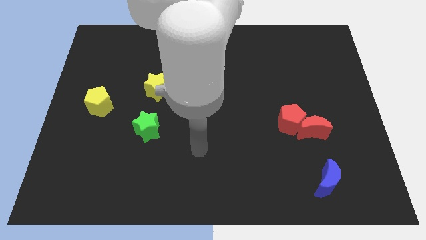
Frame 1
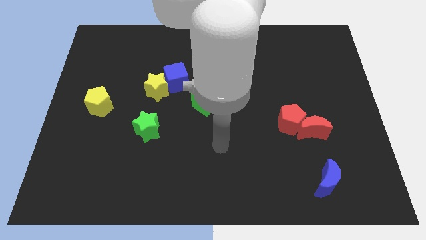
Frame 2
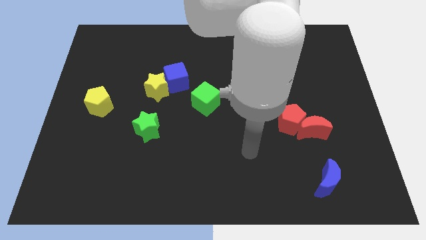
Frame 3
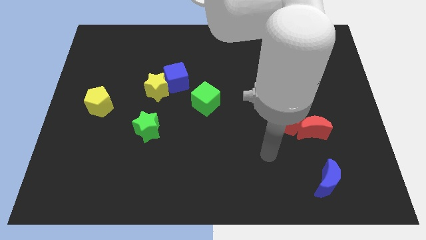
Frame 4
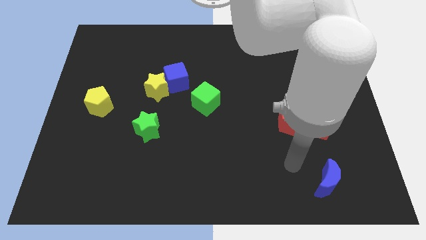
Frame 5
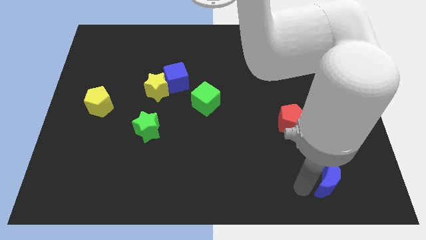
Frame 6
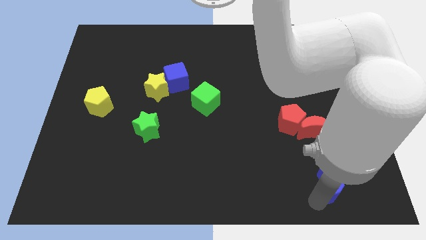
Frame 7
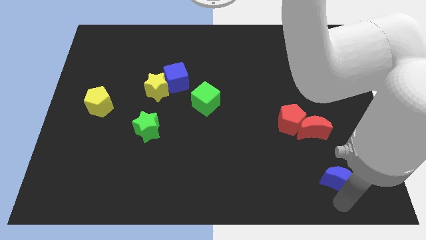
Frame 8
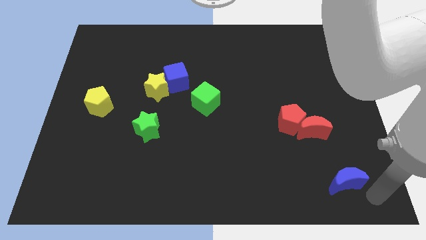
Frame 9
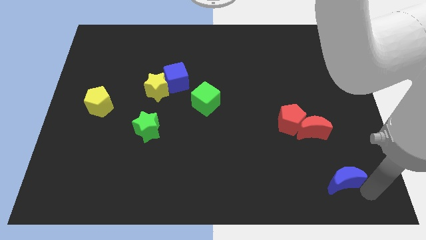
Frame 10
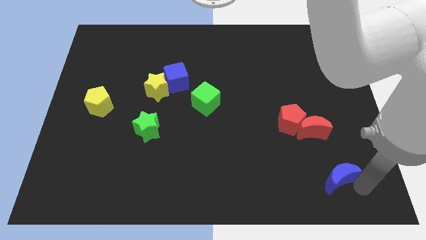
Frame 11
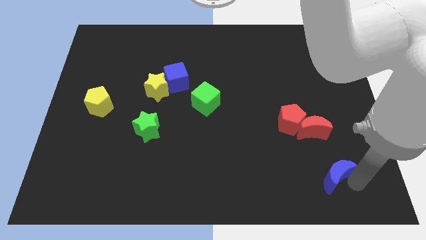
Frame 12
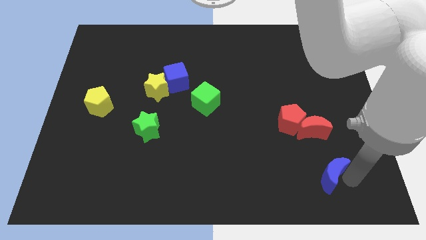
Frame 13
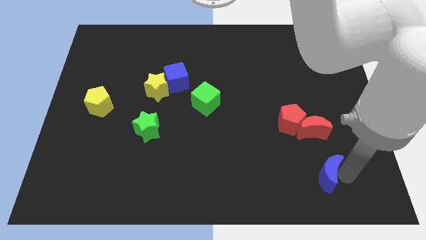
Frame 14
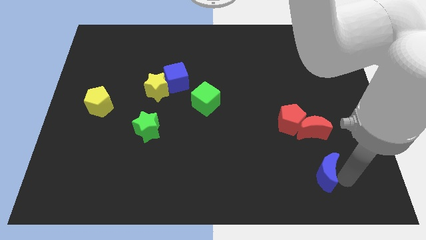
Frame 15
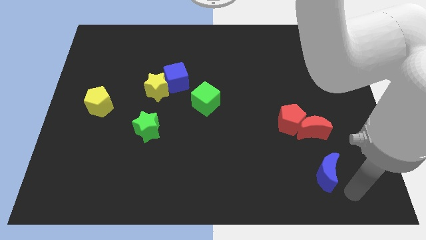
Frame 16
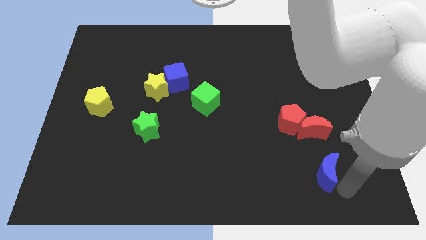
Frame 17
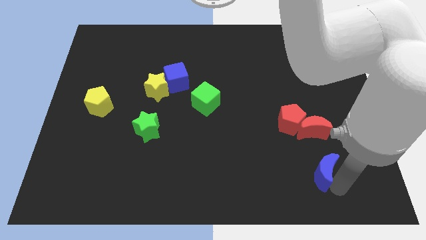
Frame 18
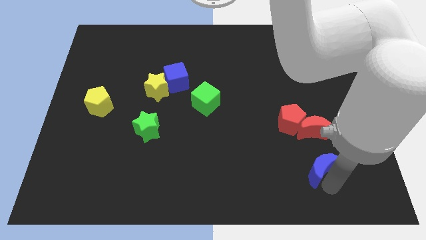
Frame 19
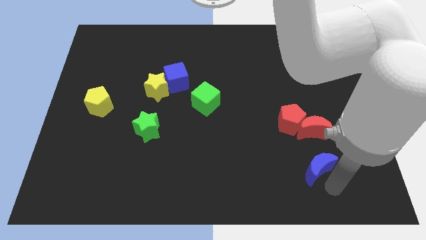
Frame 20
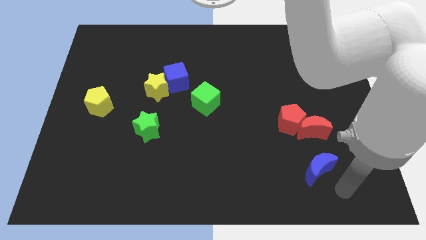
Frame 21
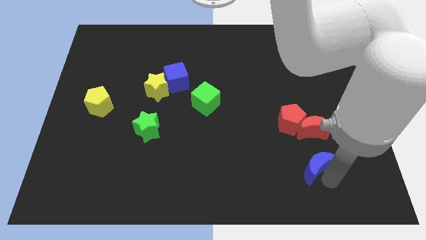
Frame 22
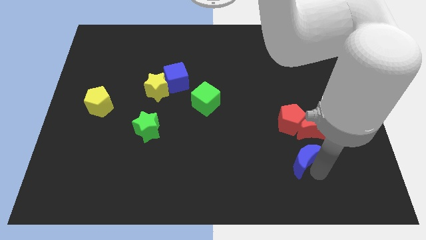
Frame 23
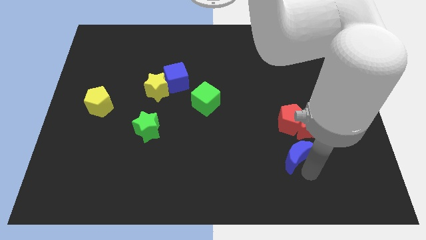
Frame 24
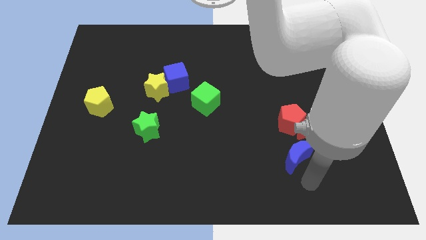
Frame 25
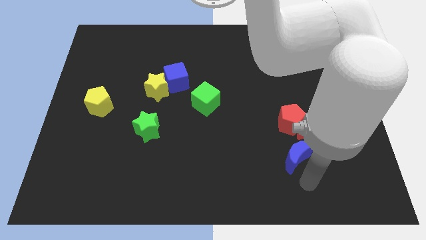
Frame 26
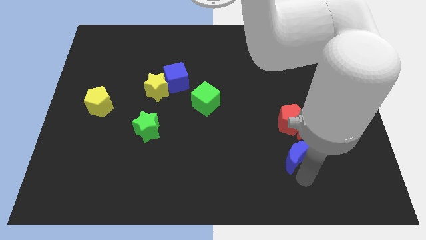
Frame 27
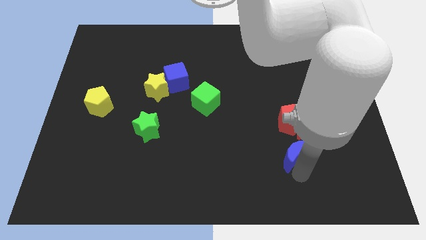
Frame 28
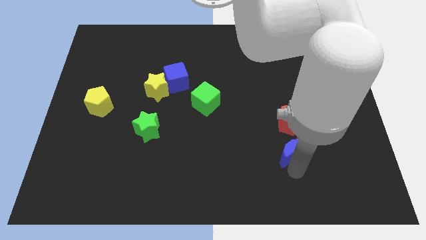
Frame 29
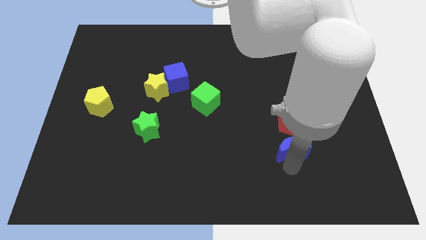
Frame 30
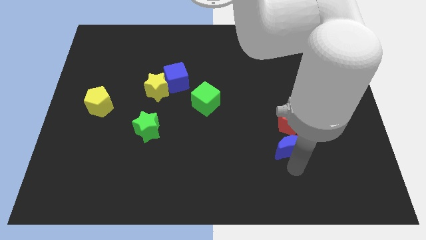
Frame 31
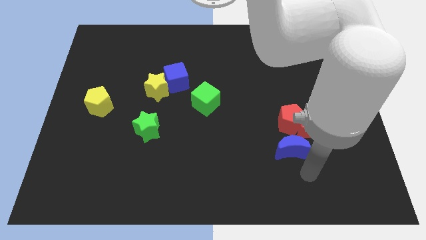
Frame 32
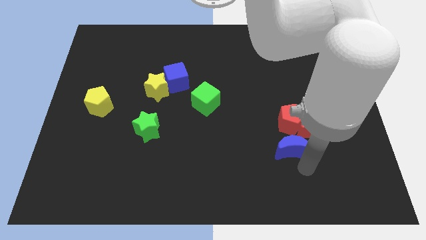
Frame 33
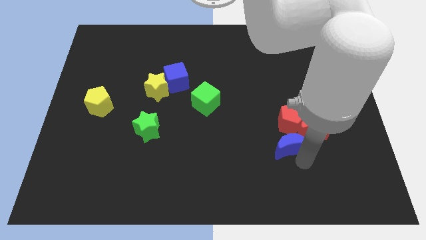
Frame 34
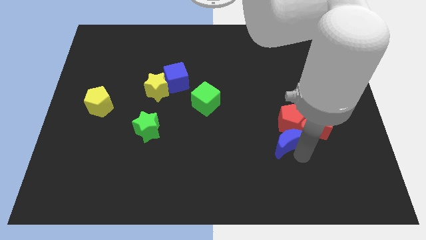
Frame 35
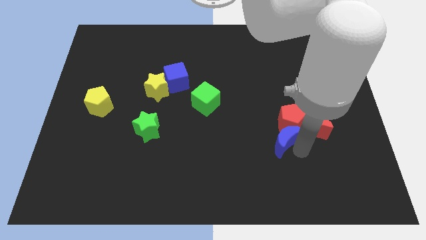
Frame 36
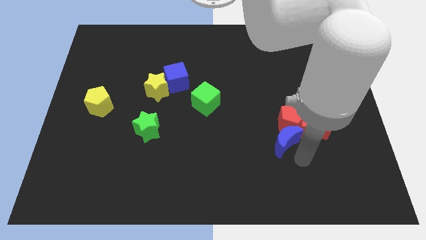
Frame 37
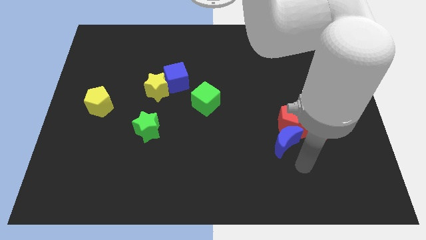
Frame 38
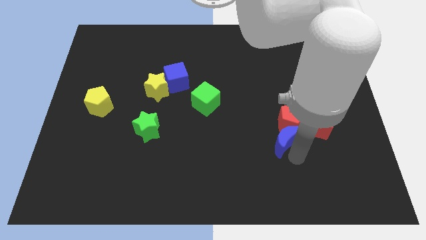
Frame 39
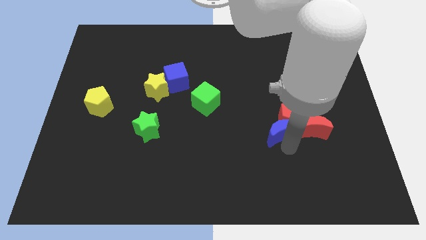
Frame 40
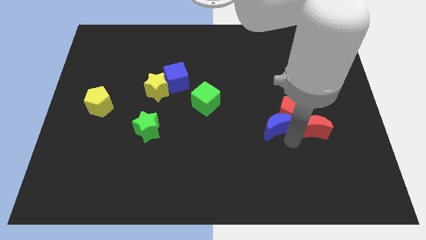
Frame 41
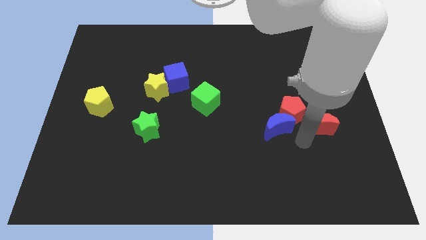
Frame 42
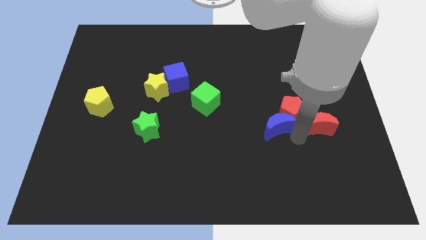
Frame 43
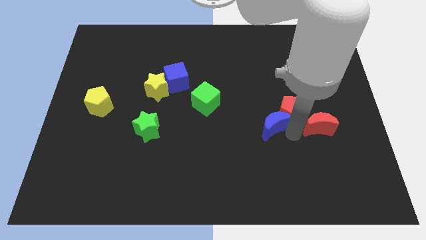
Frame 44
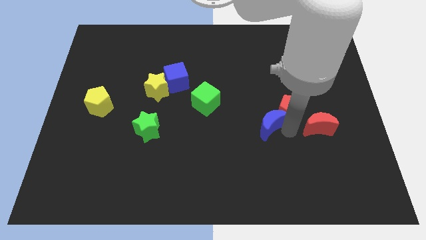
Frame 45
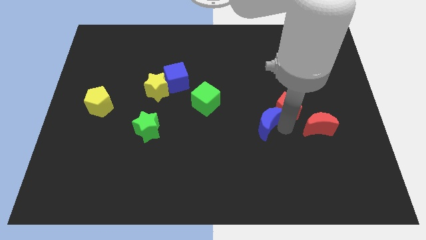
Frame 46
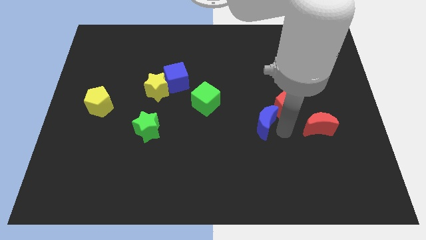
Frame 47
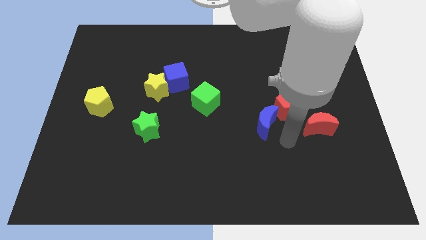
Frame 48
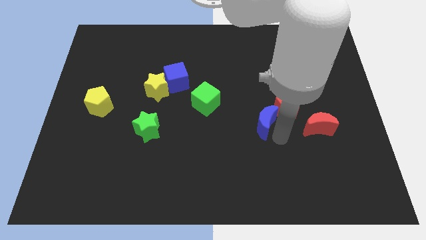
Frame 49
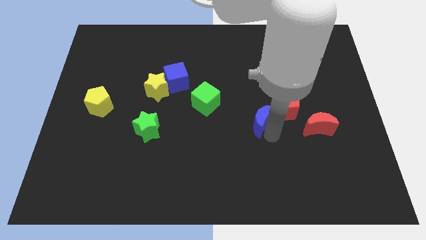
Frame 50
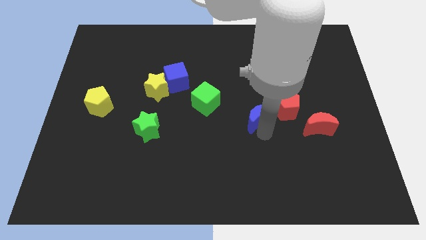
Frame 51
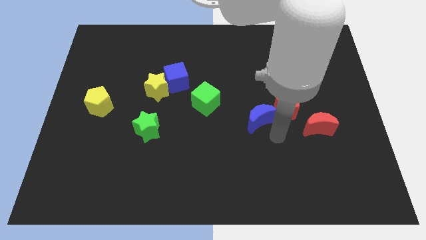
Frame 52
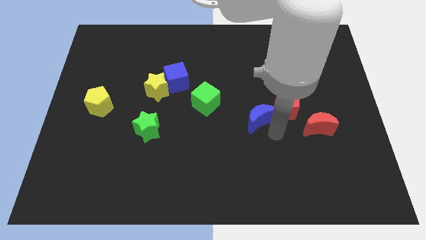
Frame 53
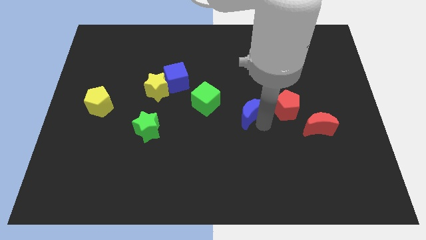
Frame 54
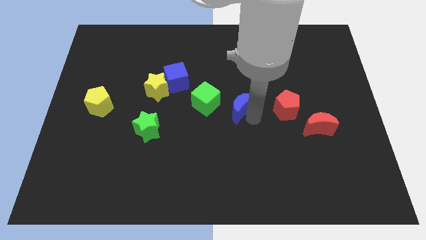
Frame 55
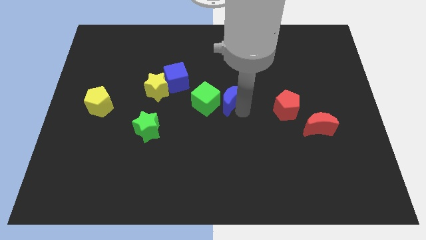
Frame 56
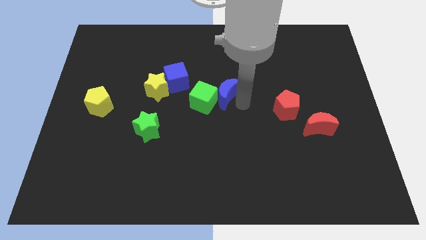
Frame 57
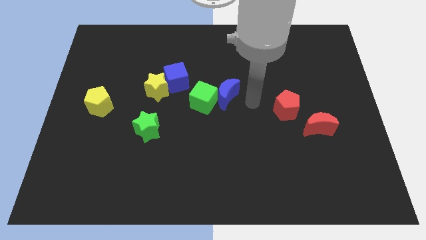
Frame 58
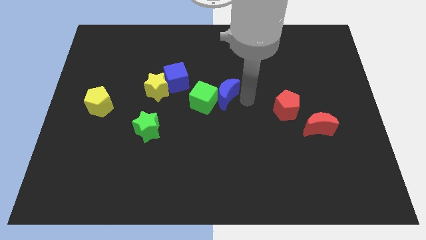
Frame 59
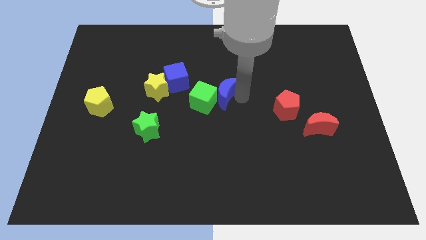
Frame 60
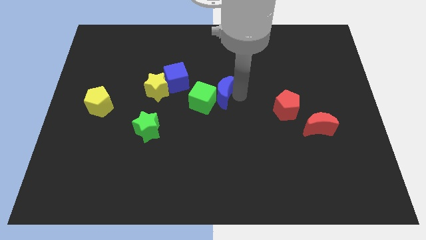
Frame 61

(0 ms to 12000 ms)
put the blue moon to the right of the yellow star

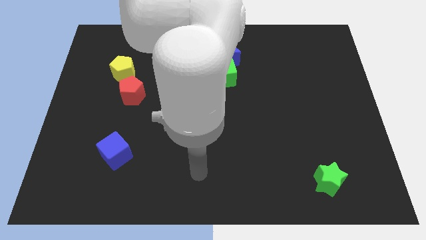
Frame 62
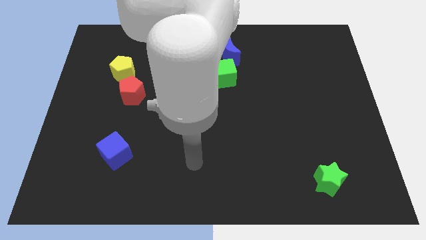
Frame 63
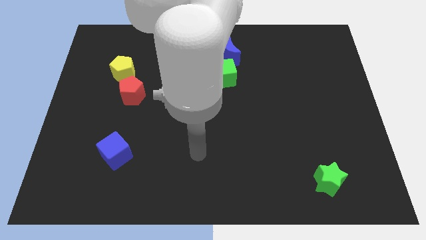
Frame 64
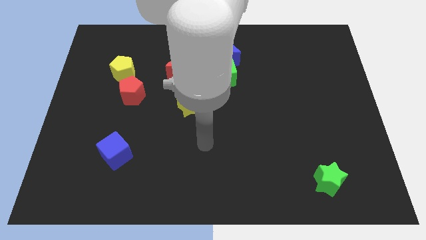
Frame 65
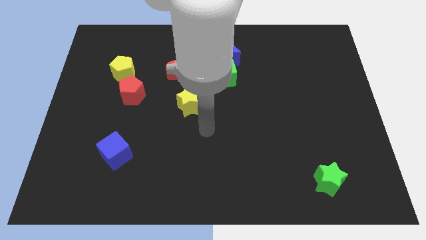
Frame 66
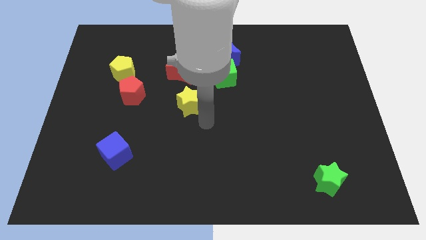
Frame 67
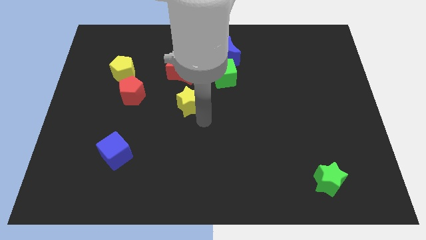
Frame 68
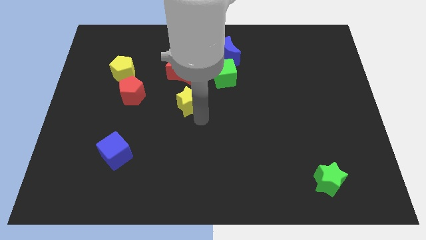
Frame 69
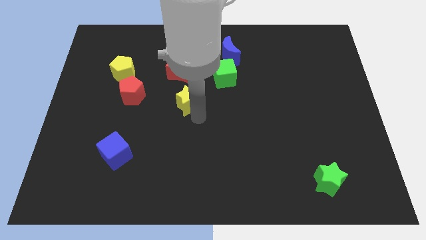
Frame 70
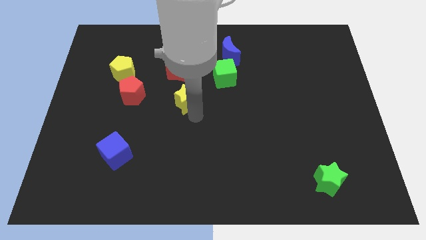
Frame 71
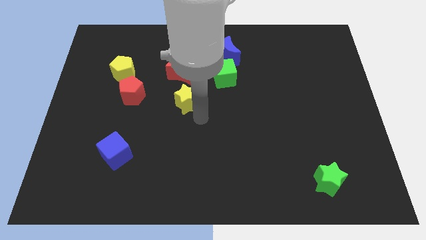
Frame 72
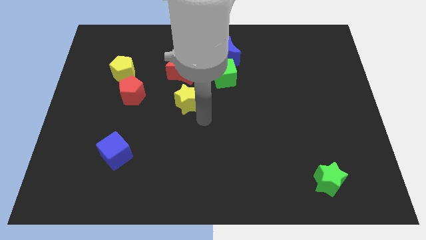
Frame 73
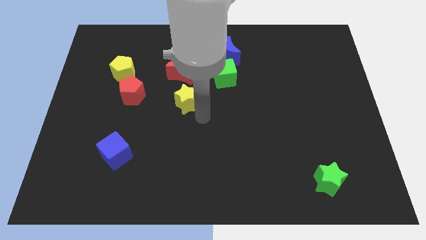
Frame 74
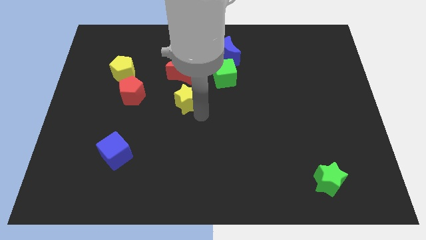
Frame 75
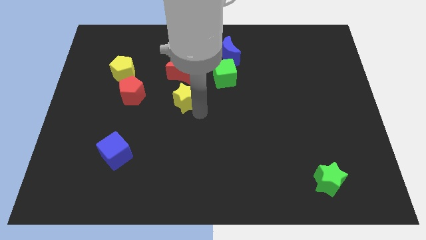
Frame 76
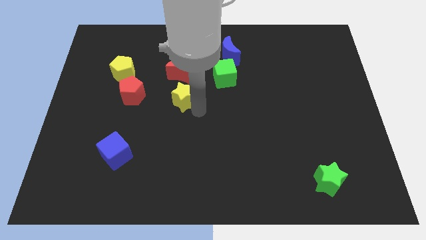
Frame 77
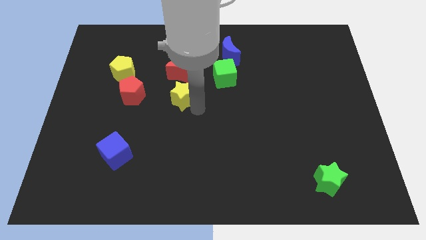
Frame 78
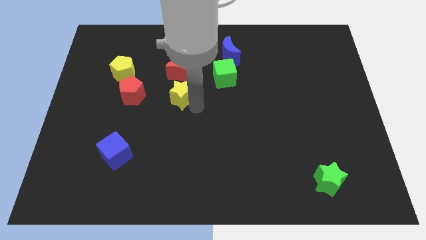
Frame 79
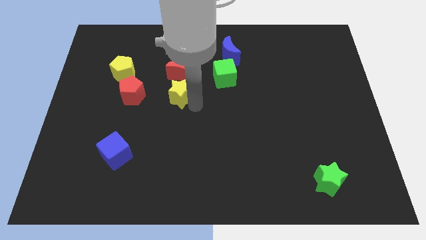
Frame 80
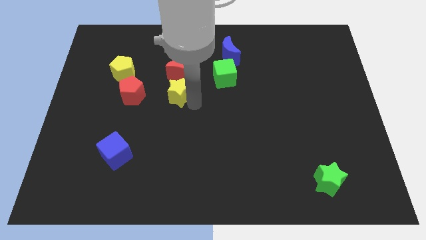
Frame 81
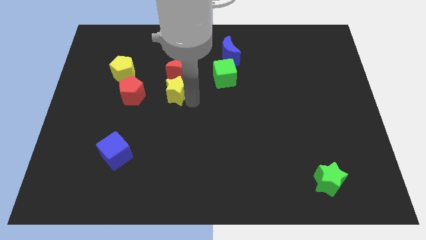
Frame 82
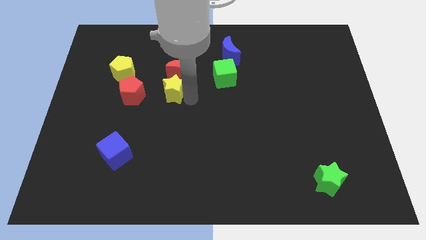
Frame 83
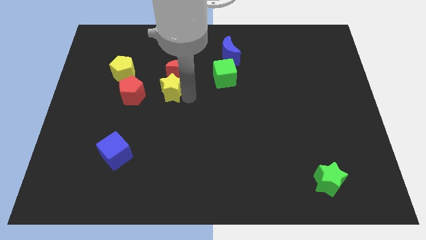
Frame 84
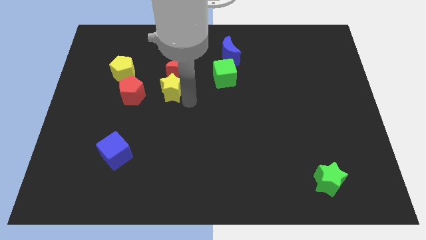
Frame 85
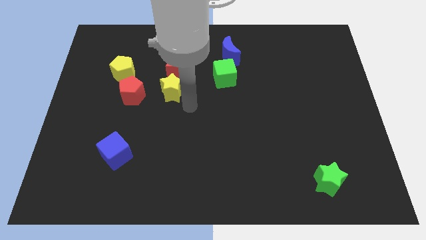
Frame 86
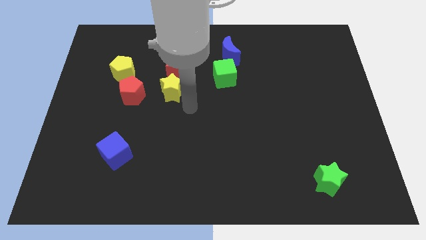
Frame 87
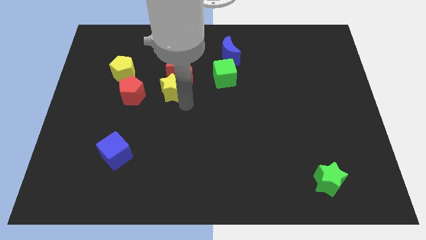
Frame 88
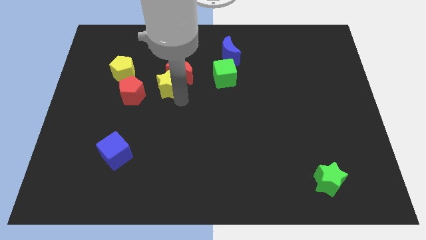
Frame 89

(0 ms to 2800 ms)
move the yellow star diagonally up and to the right of the red pentagon
